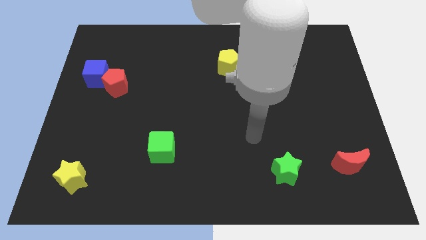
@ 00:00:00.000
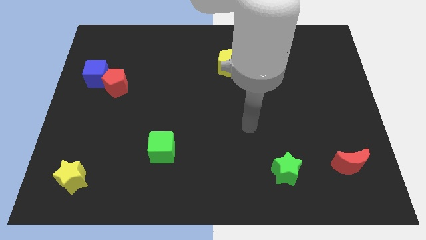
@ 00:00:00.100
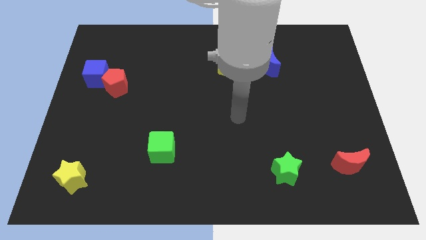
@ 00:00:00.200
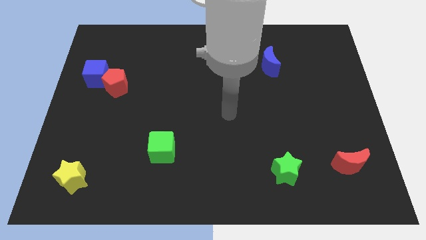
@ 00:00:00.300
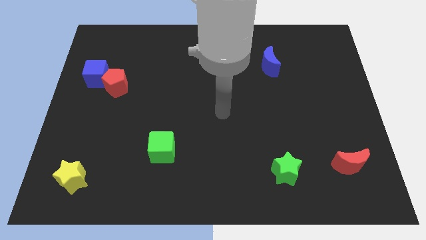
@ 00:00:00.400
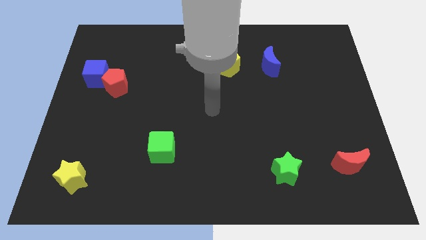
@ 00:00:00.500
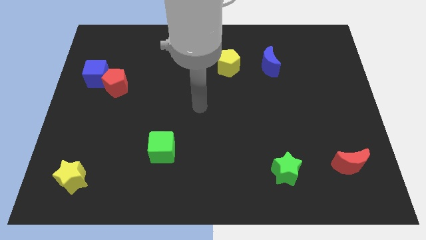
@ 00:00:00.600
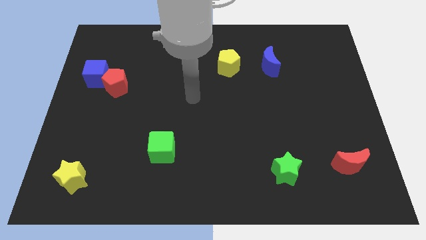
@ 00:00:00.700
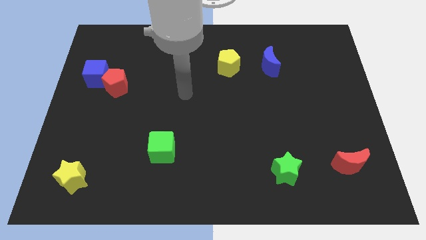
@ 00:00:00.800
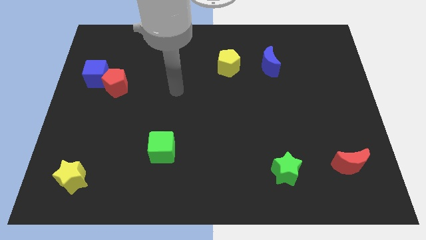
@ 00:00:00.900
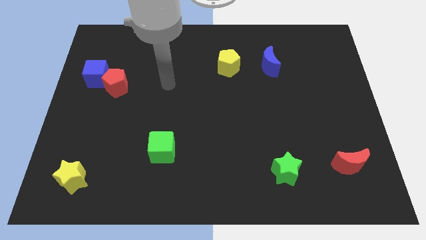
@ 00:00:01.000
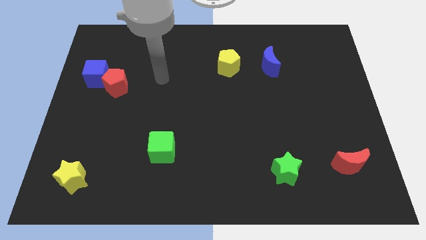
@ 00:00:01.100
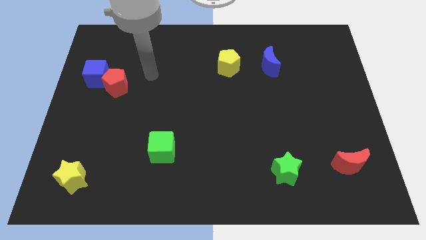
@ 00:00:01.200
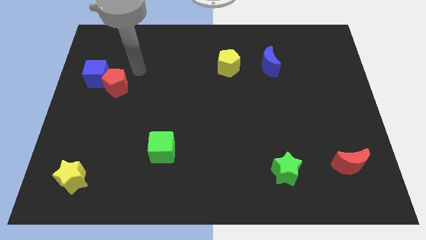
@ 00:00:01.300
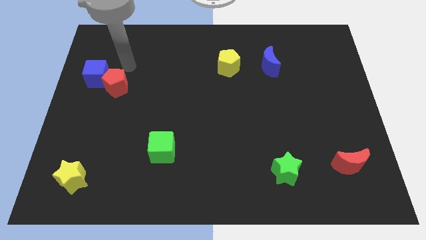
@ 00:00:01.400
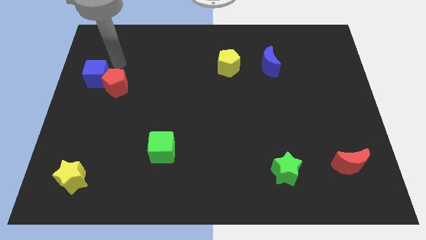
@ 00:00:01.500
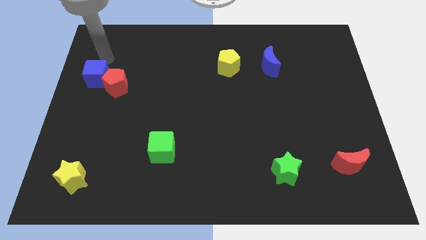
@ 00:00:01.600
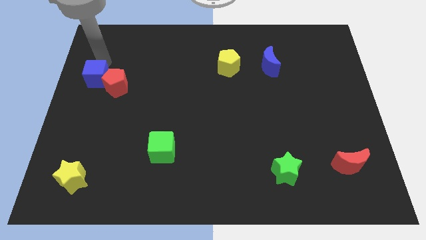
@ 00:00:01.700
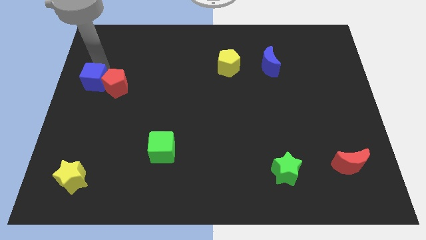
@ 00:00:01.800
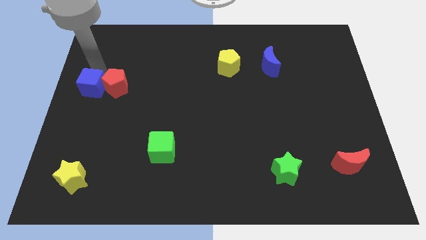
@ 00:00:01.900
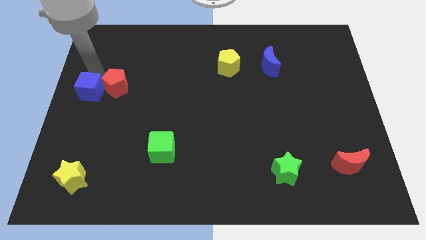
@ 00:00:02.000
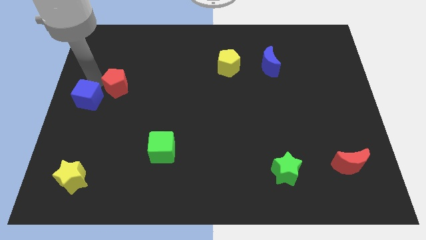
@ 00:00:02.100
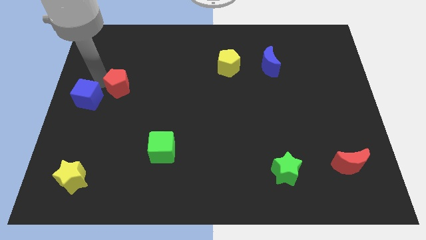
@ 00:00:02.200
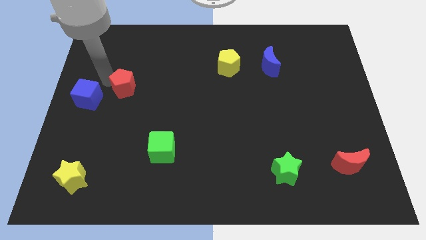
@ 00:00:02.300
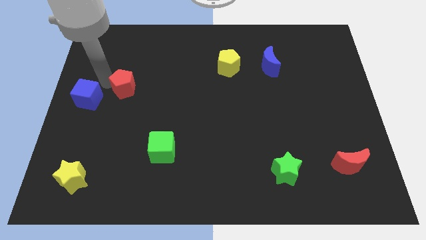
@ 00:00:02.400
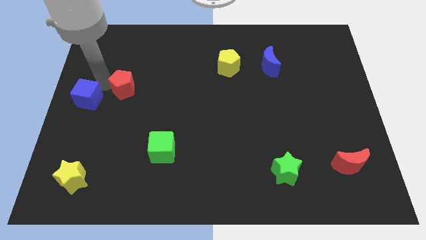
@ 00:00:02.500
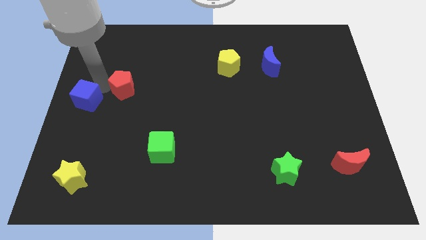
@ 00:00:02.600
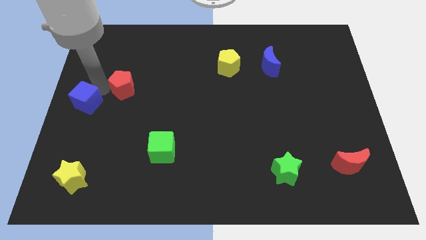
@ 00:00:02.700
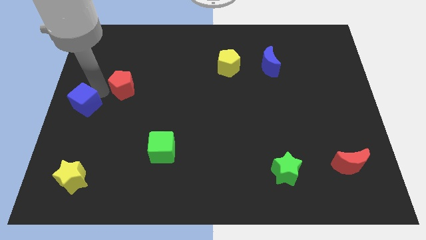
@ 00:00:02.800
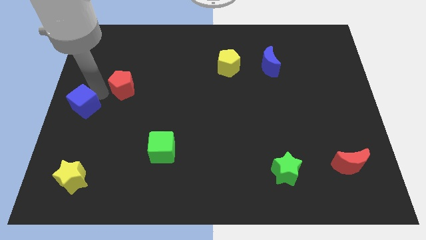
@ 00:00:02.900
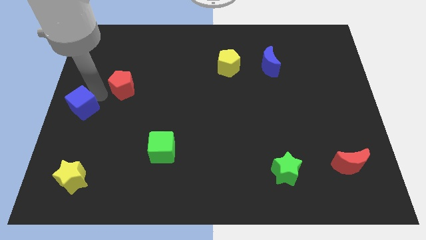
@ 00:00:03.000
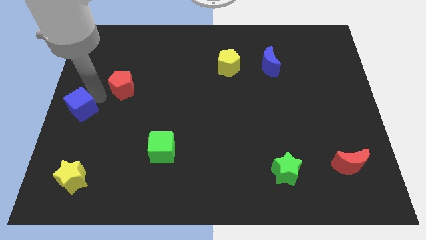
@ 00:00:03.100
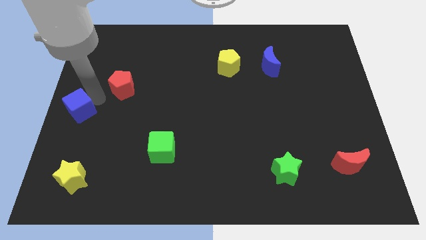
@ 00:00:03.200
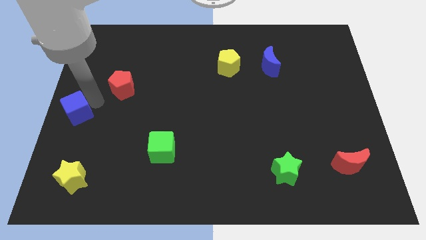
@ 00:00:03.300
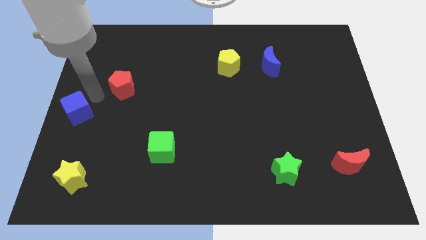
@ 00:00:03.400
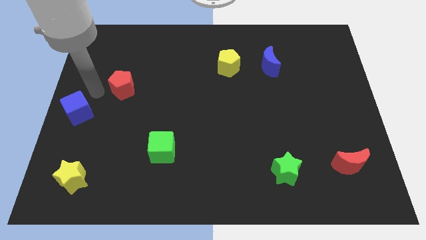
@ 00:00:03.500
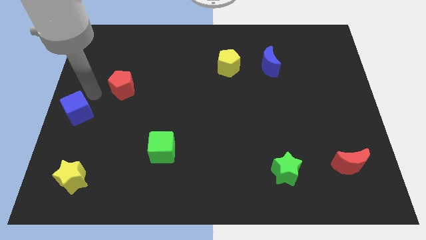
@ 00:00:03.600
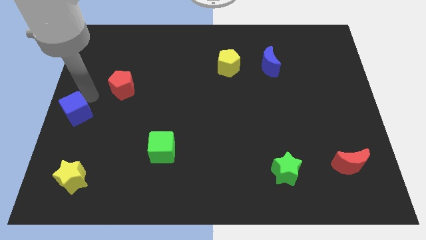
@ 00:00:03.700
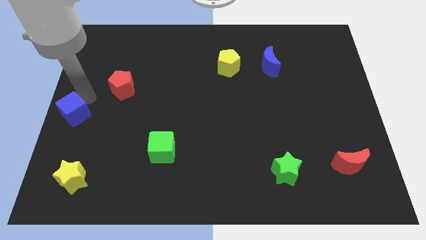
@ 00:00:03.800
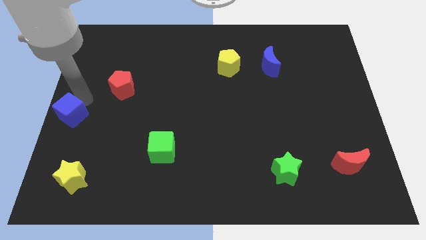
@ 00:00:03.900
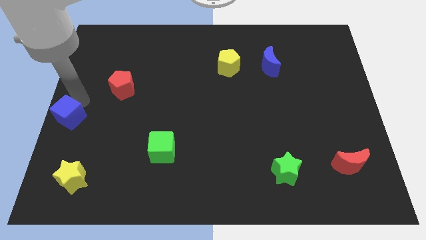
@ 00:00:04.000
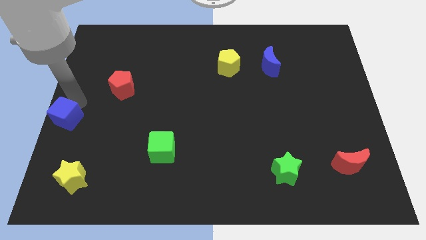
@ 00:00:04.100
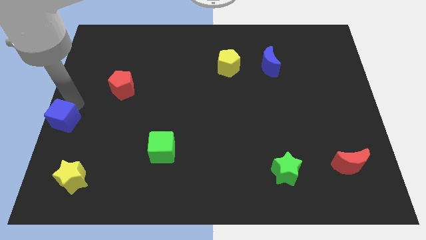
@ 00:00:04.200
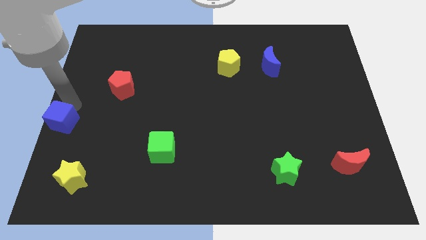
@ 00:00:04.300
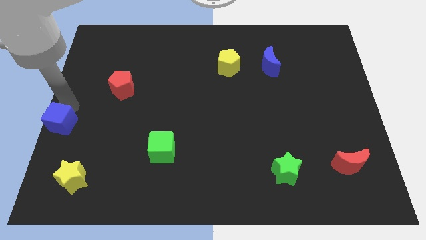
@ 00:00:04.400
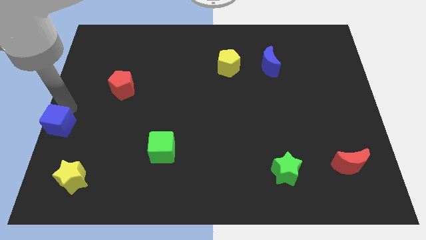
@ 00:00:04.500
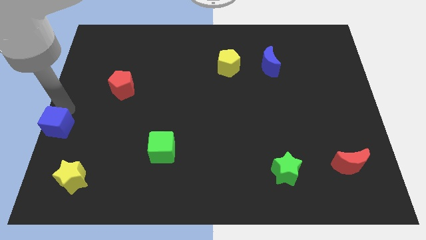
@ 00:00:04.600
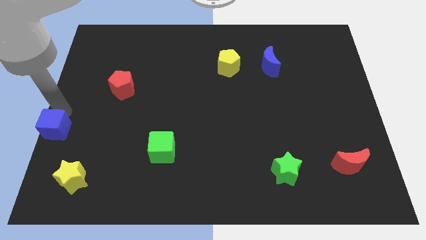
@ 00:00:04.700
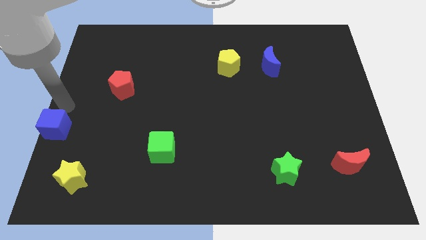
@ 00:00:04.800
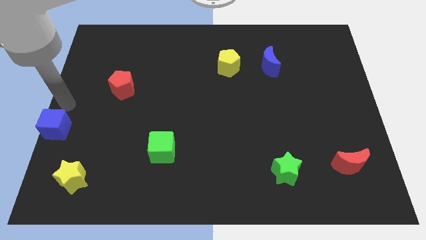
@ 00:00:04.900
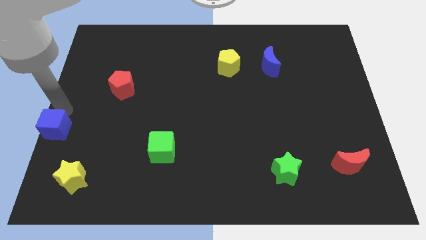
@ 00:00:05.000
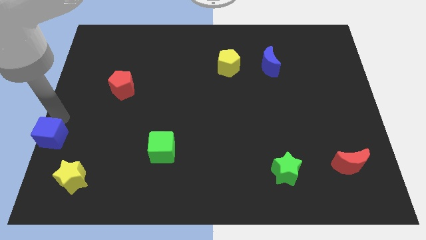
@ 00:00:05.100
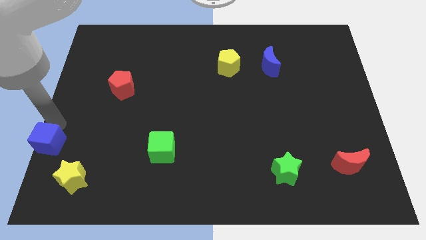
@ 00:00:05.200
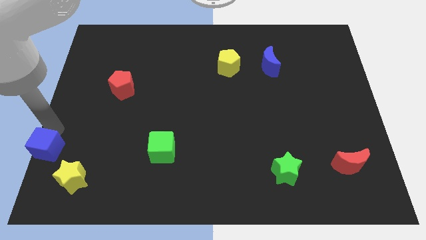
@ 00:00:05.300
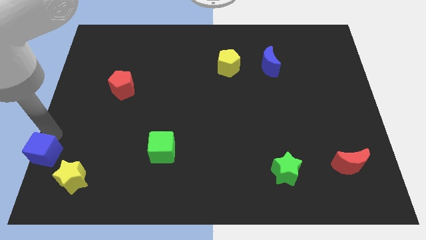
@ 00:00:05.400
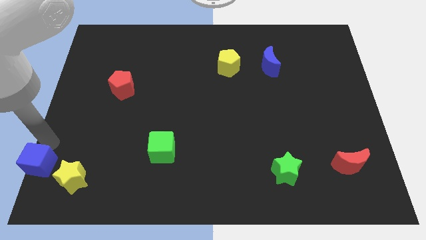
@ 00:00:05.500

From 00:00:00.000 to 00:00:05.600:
slide the blue cube to the bottom left of the board

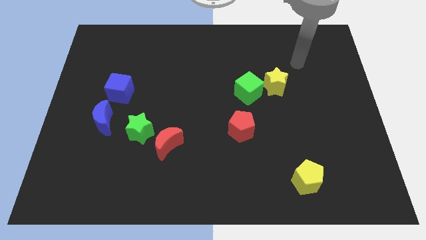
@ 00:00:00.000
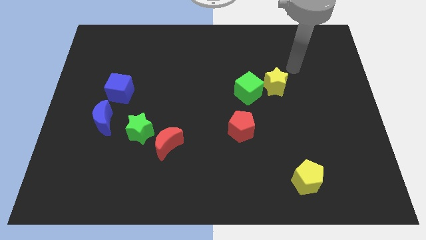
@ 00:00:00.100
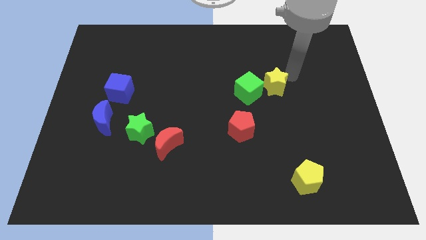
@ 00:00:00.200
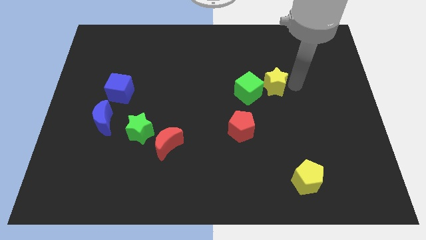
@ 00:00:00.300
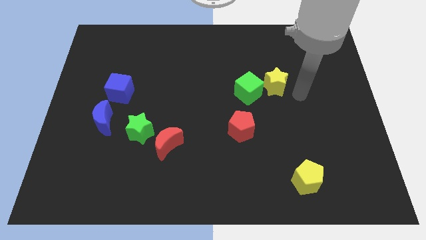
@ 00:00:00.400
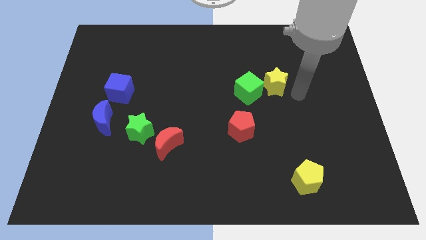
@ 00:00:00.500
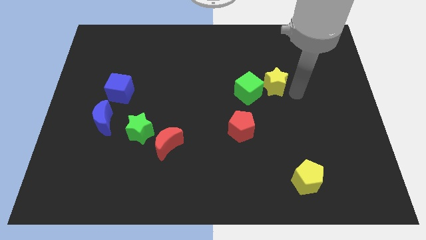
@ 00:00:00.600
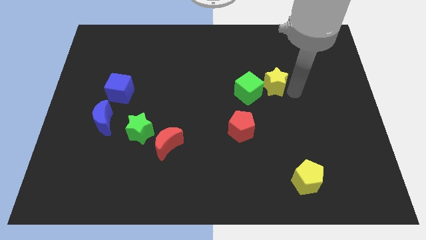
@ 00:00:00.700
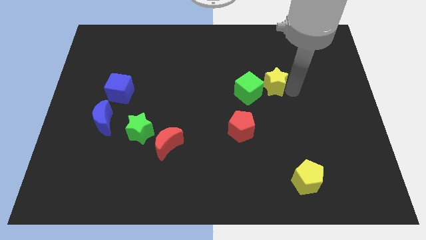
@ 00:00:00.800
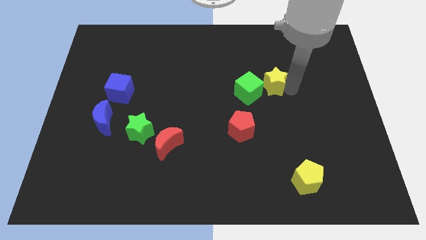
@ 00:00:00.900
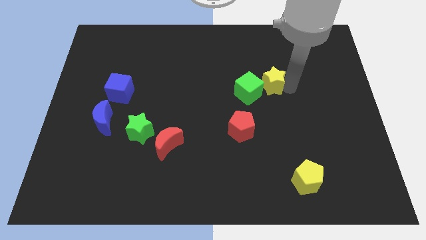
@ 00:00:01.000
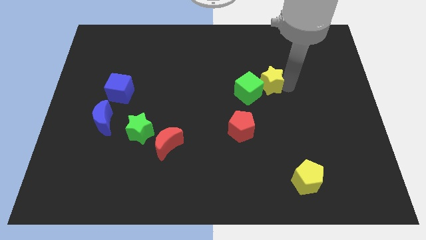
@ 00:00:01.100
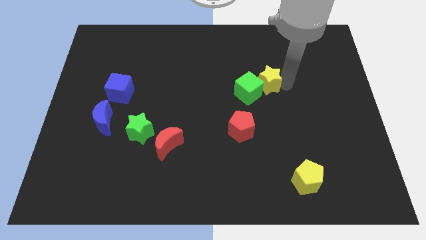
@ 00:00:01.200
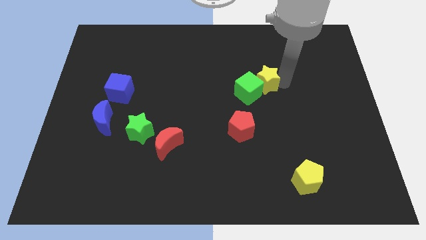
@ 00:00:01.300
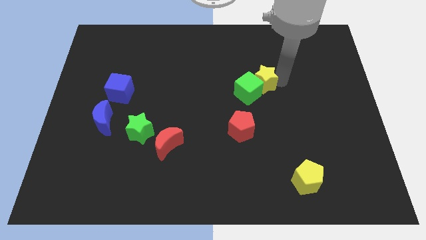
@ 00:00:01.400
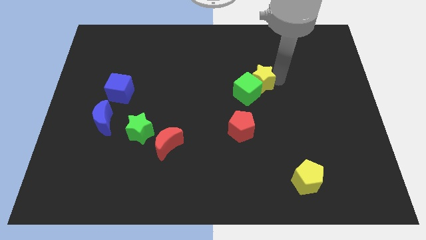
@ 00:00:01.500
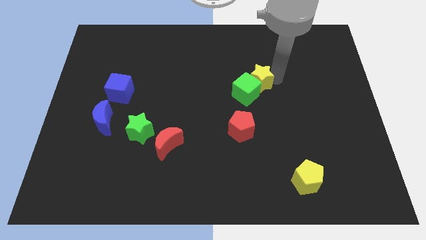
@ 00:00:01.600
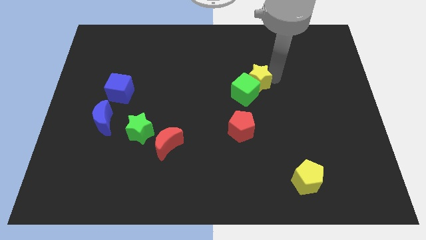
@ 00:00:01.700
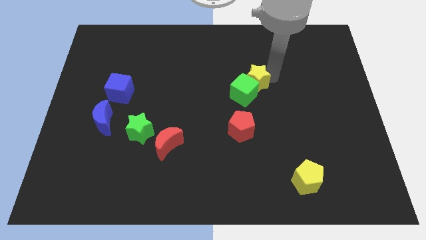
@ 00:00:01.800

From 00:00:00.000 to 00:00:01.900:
move the yellow star to the middle
